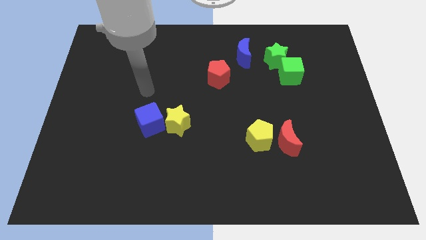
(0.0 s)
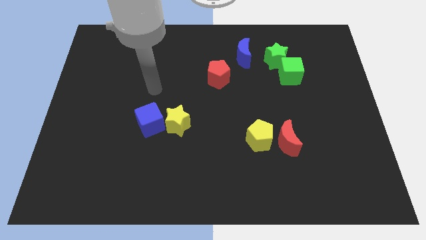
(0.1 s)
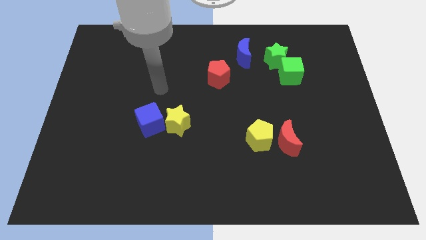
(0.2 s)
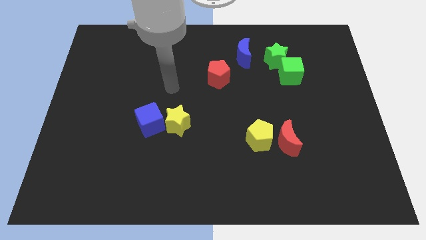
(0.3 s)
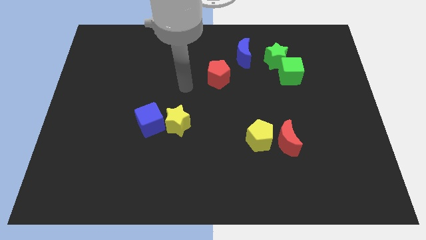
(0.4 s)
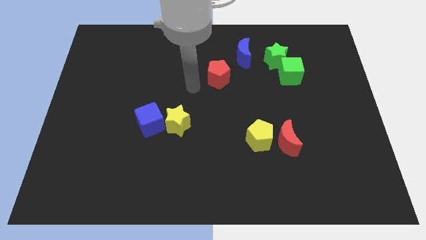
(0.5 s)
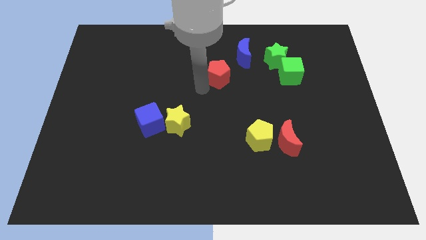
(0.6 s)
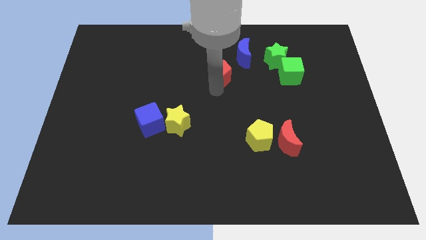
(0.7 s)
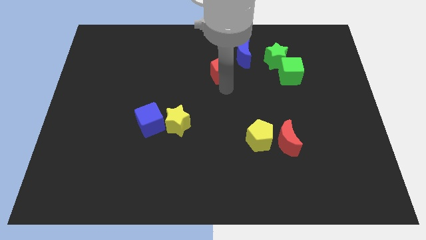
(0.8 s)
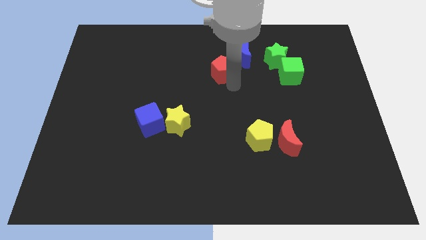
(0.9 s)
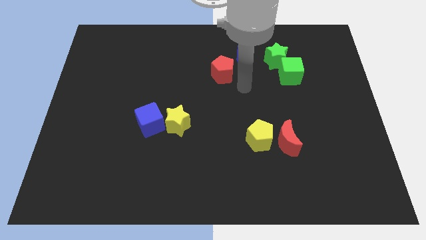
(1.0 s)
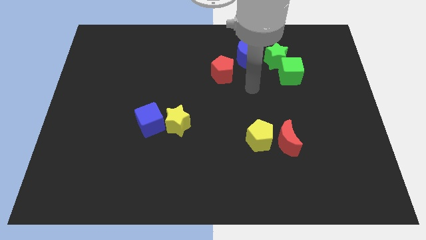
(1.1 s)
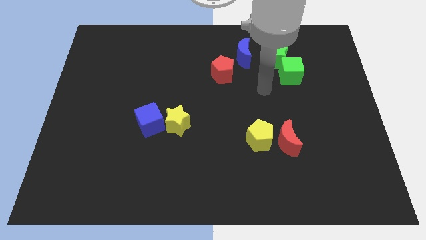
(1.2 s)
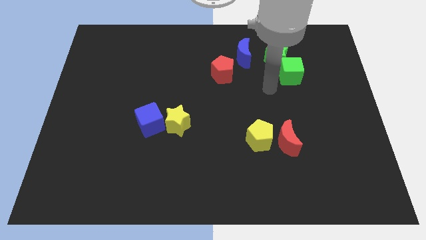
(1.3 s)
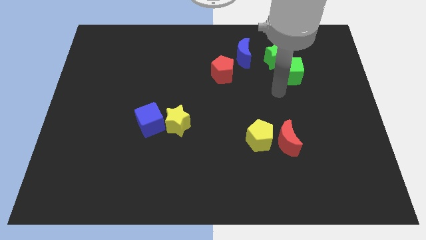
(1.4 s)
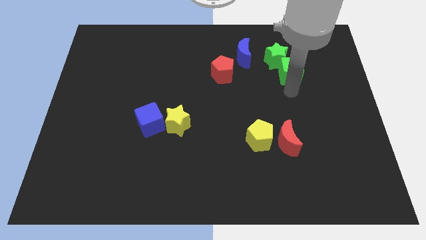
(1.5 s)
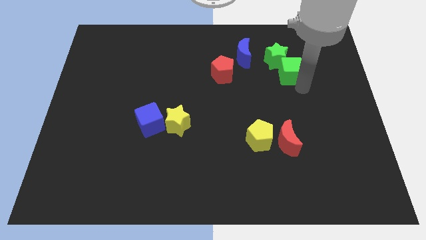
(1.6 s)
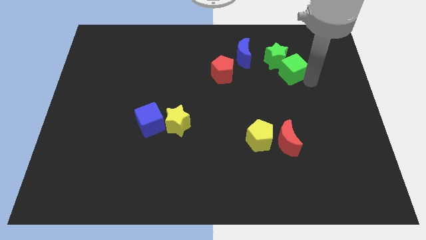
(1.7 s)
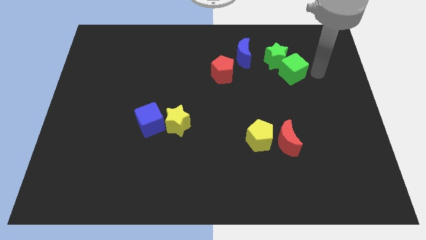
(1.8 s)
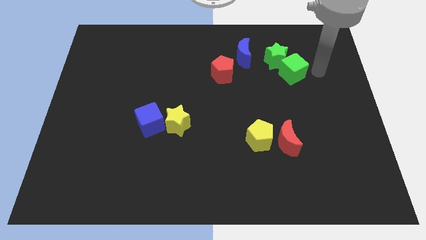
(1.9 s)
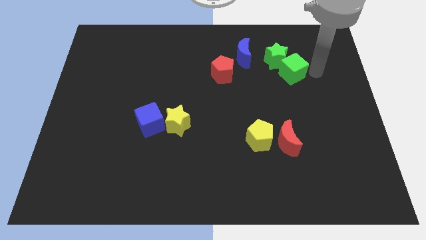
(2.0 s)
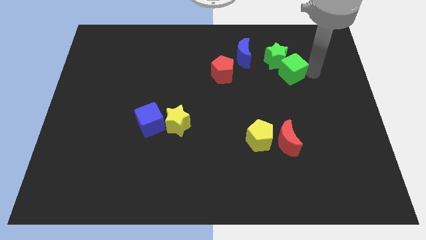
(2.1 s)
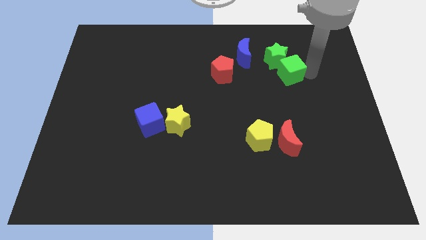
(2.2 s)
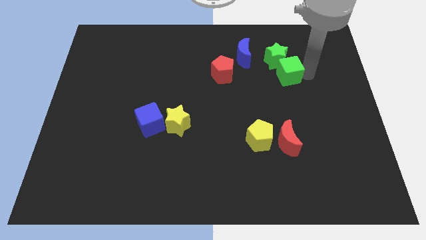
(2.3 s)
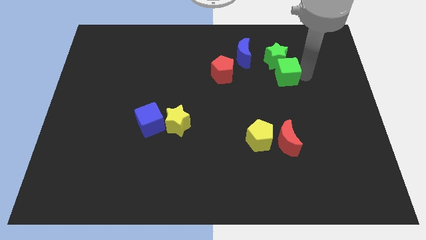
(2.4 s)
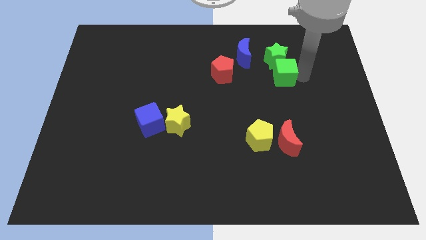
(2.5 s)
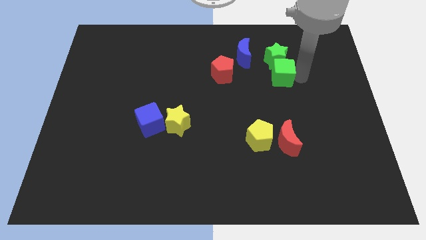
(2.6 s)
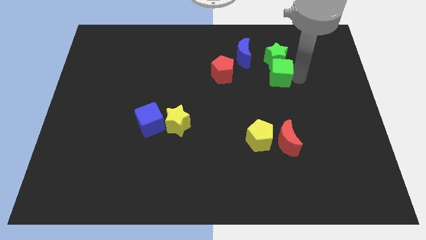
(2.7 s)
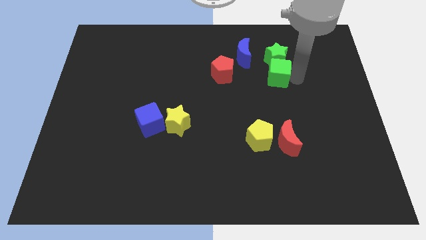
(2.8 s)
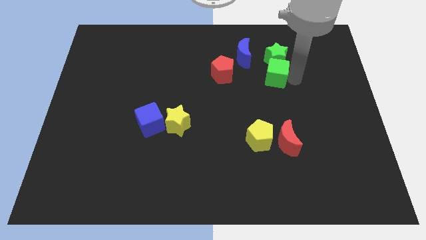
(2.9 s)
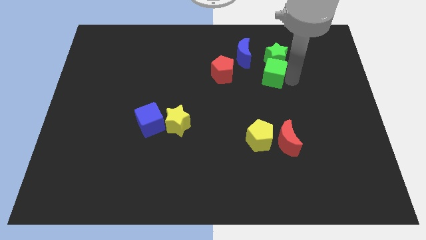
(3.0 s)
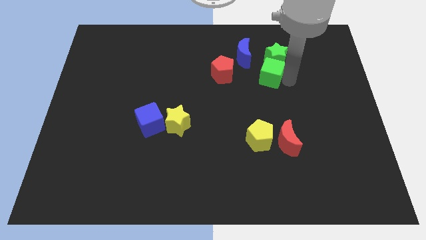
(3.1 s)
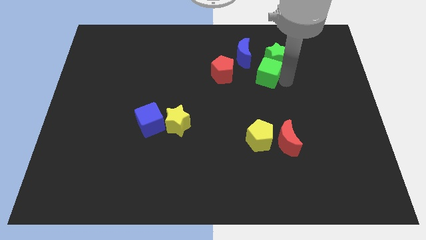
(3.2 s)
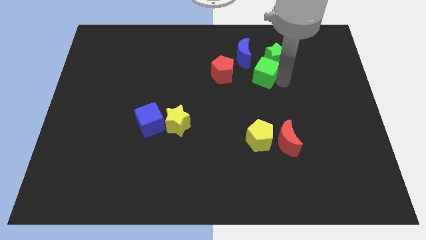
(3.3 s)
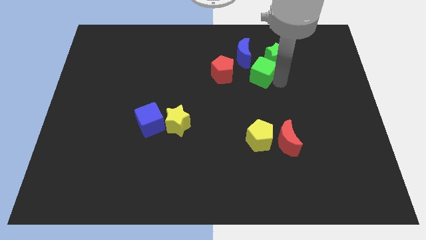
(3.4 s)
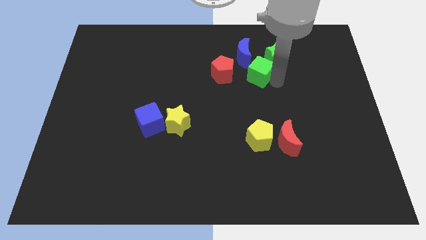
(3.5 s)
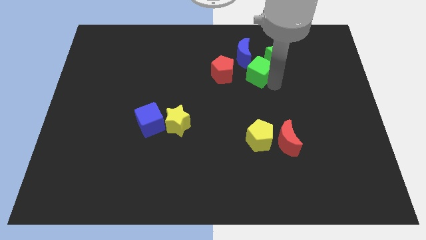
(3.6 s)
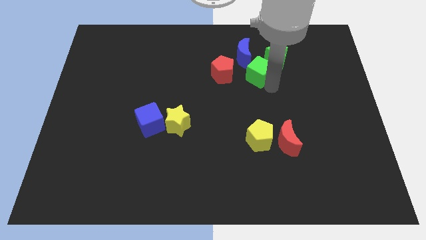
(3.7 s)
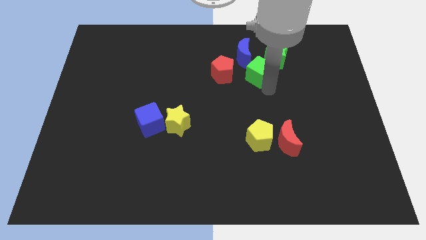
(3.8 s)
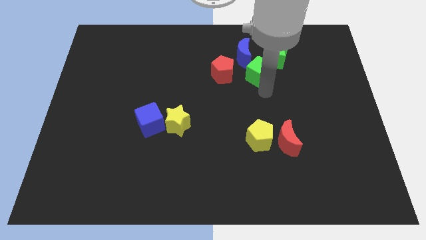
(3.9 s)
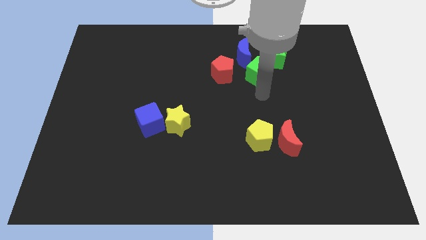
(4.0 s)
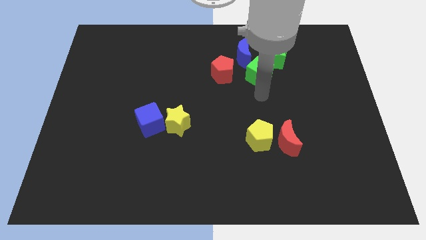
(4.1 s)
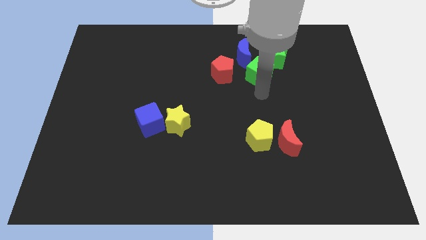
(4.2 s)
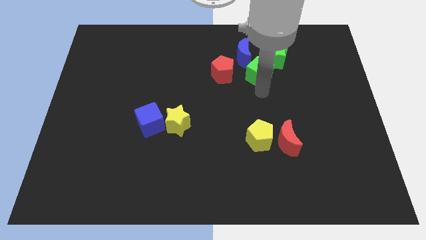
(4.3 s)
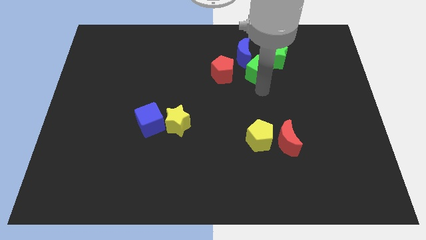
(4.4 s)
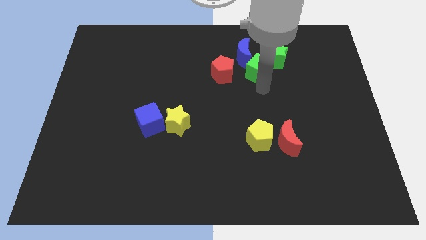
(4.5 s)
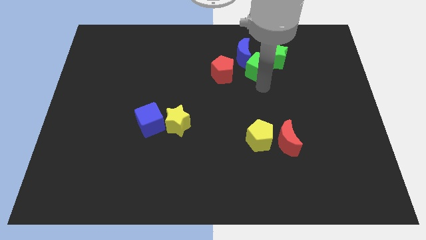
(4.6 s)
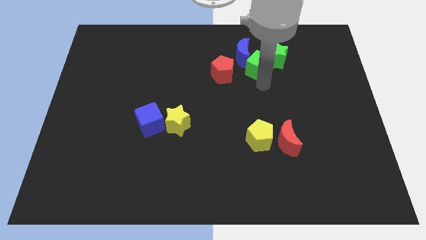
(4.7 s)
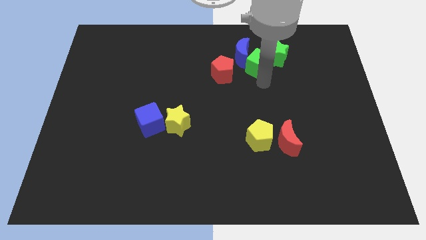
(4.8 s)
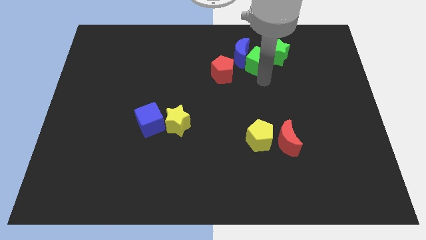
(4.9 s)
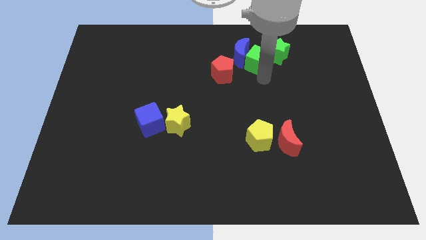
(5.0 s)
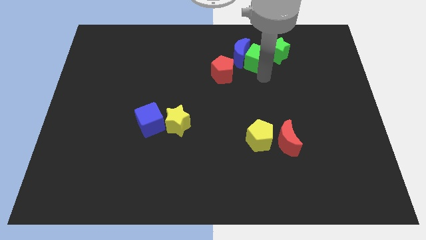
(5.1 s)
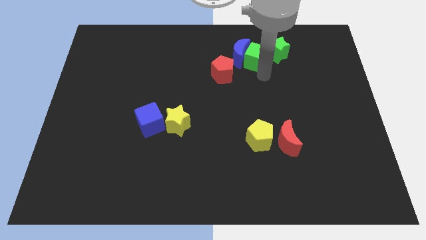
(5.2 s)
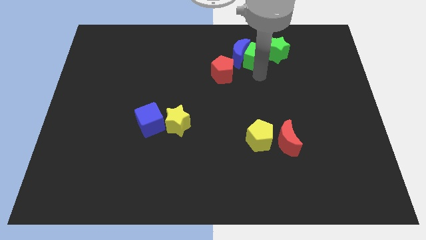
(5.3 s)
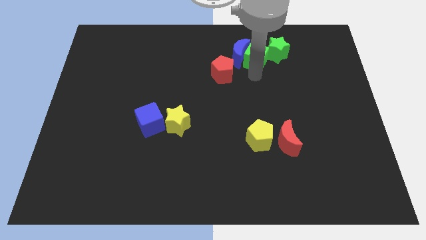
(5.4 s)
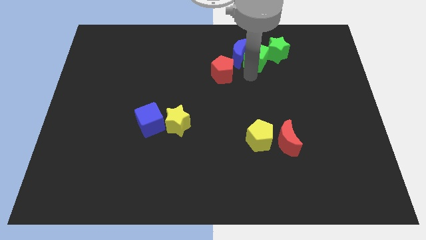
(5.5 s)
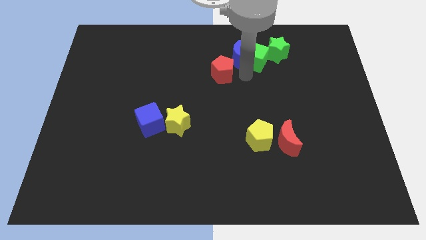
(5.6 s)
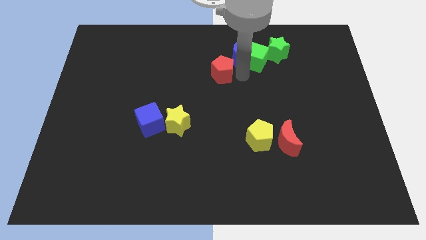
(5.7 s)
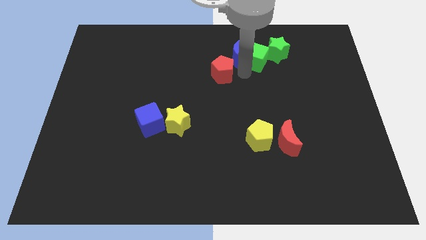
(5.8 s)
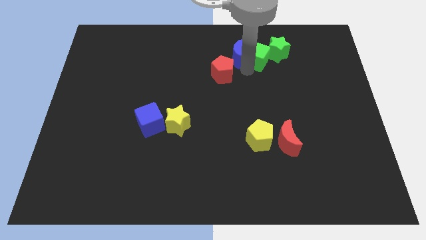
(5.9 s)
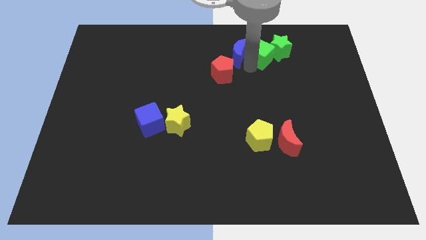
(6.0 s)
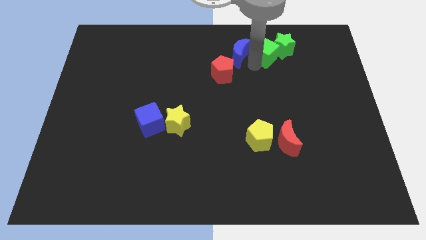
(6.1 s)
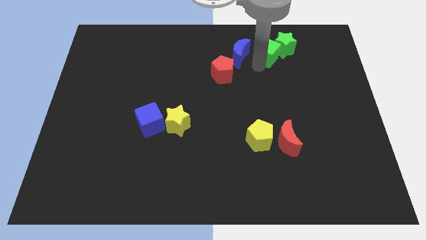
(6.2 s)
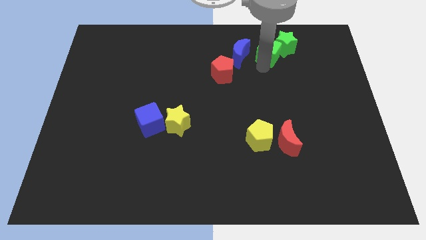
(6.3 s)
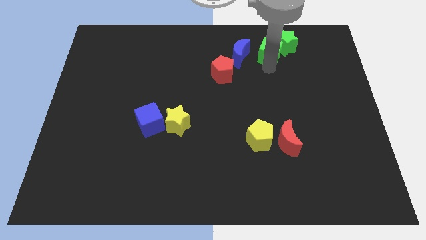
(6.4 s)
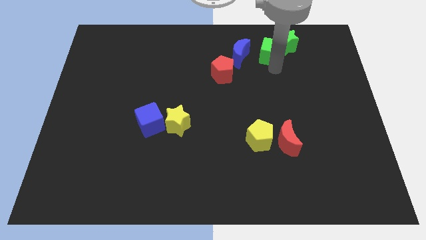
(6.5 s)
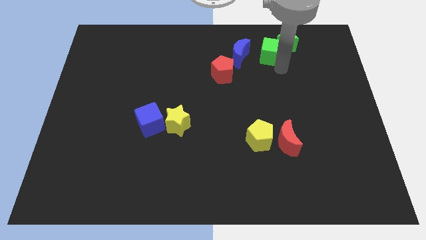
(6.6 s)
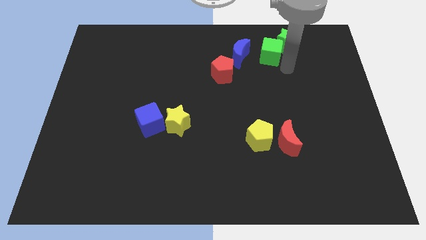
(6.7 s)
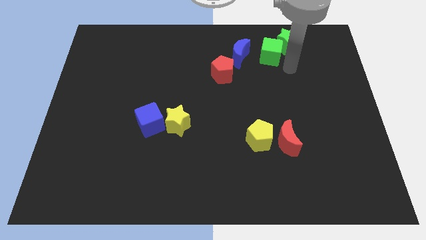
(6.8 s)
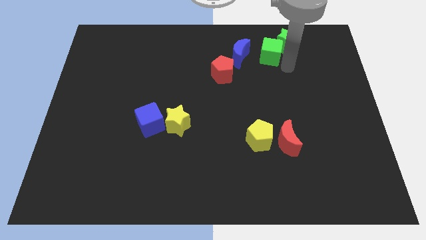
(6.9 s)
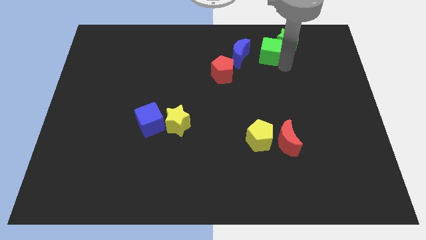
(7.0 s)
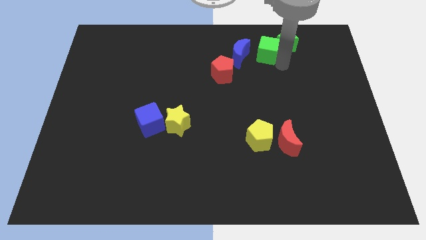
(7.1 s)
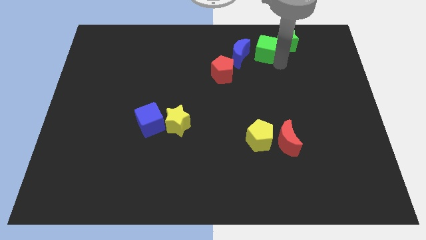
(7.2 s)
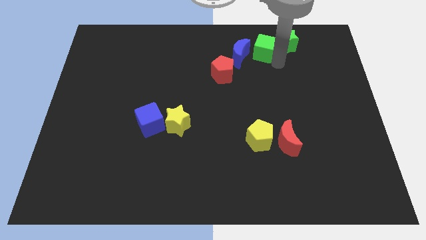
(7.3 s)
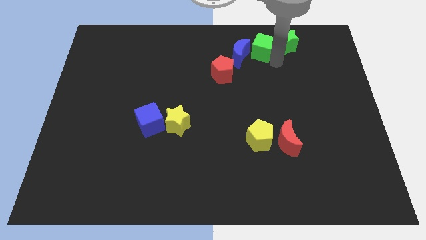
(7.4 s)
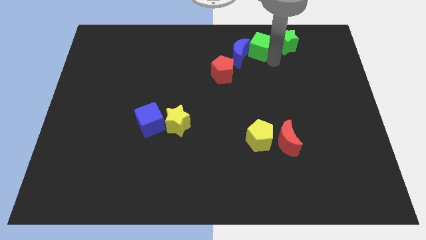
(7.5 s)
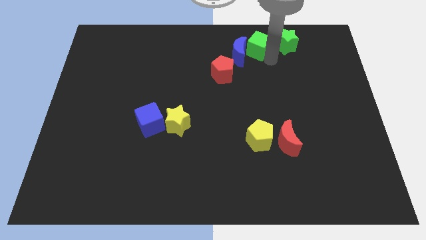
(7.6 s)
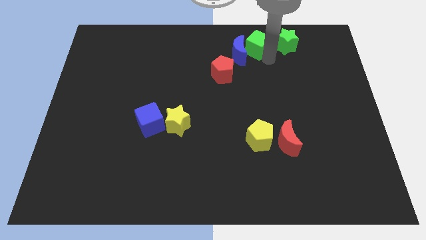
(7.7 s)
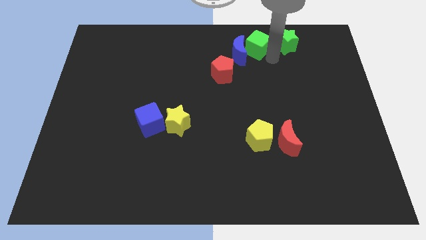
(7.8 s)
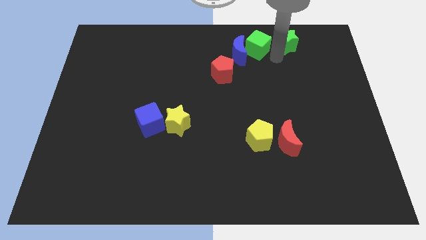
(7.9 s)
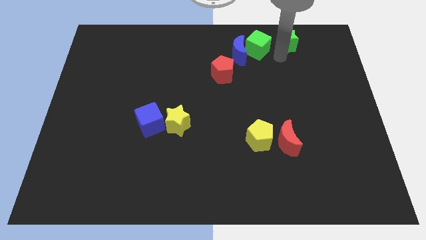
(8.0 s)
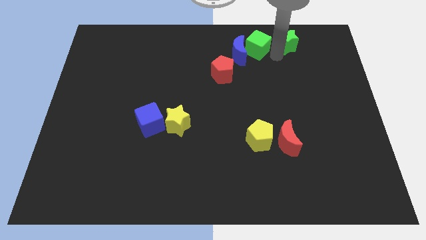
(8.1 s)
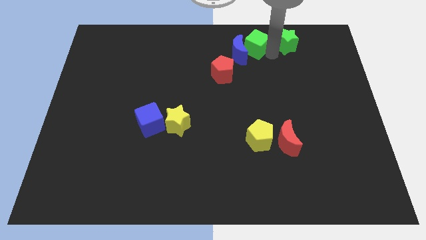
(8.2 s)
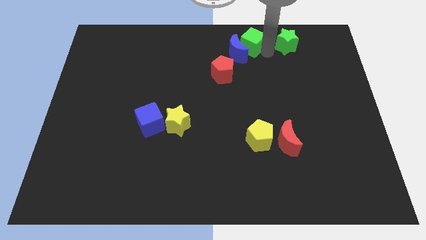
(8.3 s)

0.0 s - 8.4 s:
slide the green cube to the top
